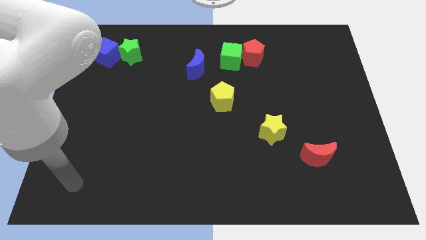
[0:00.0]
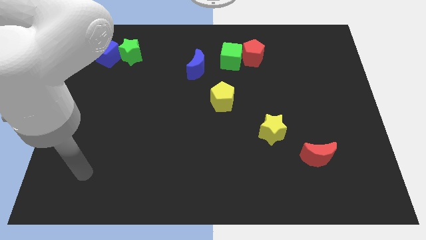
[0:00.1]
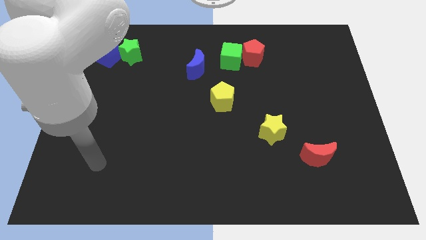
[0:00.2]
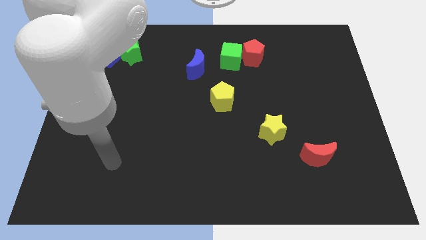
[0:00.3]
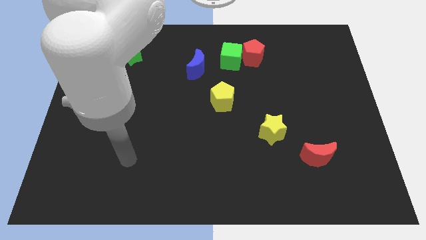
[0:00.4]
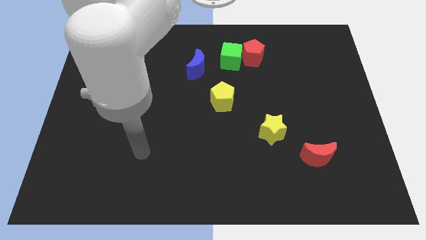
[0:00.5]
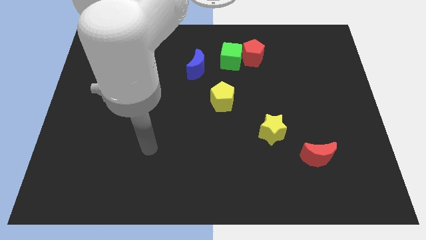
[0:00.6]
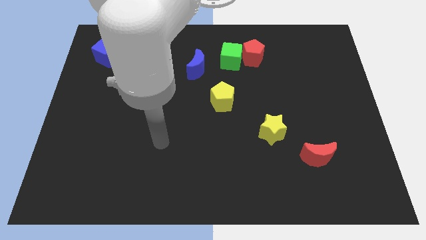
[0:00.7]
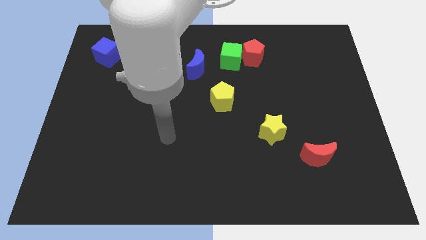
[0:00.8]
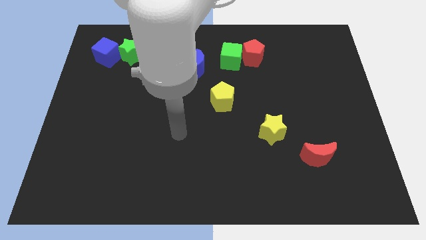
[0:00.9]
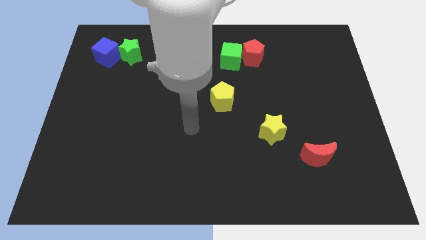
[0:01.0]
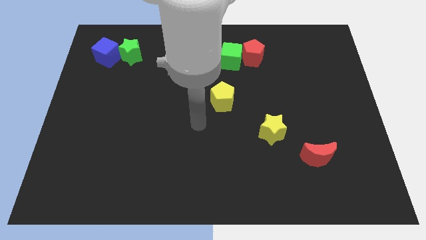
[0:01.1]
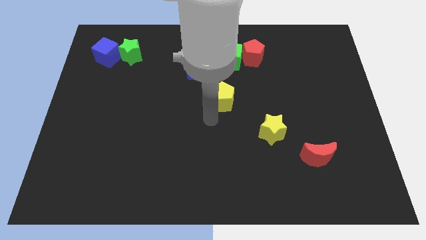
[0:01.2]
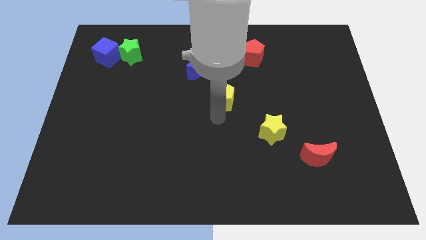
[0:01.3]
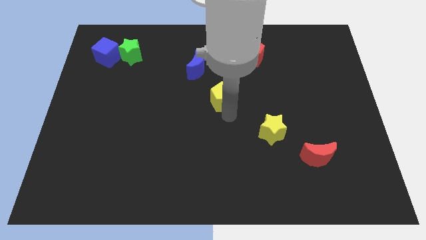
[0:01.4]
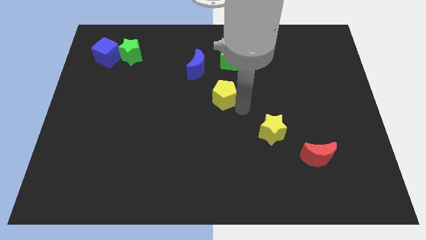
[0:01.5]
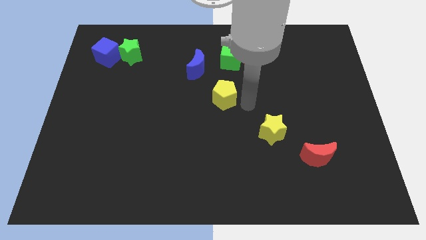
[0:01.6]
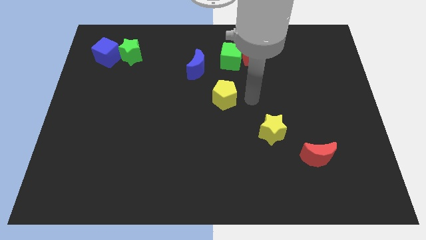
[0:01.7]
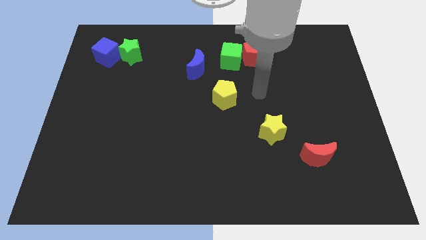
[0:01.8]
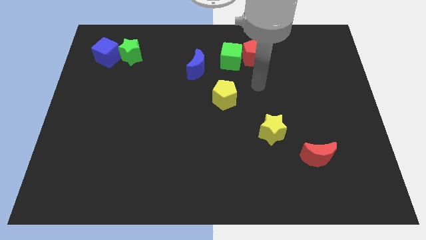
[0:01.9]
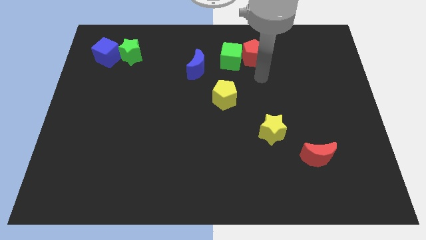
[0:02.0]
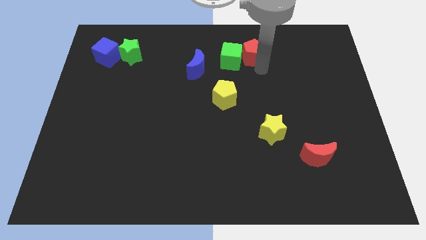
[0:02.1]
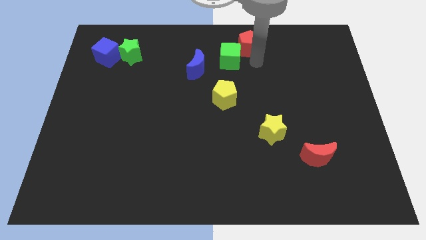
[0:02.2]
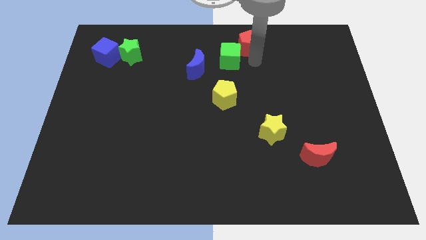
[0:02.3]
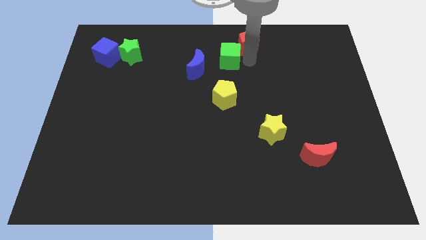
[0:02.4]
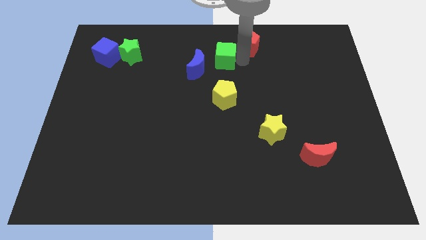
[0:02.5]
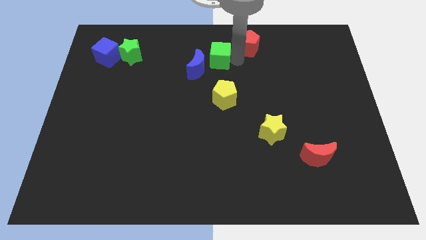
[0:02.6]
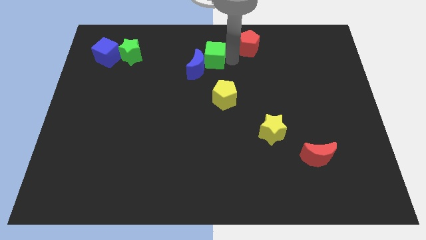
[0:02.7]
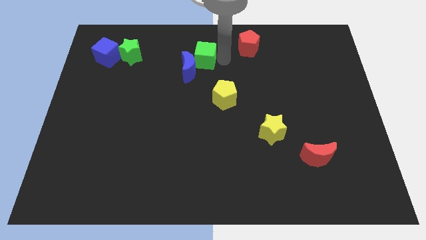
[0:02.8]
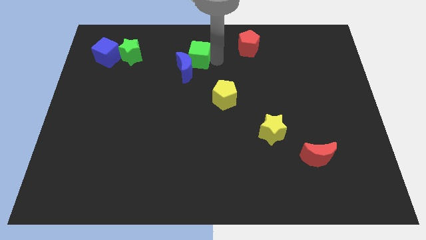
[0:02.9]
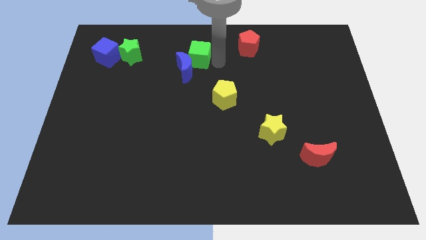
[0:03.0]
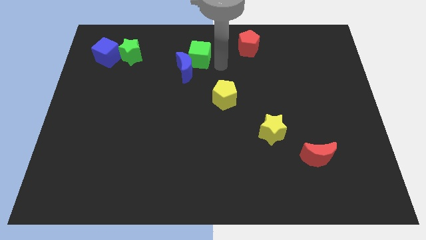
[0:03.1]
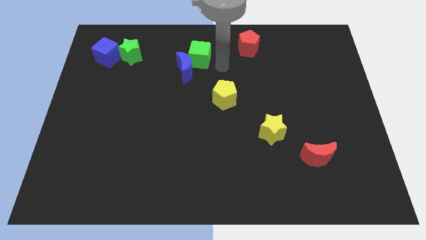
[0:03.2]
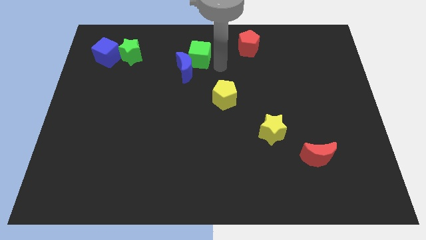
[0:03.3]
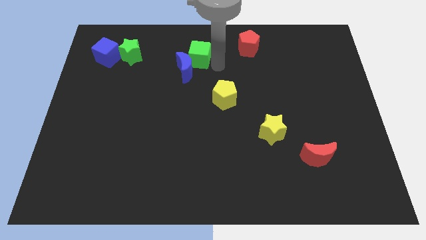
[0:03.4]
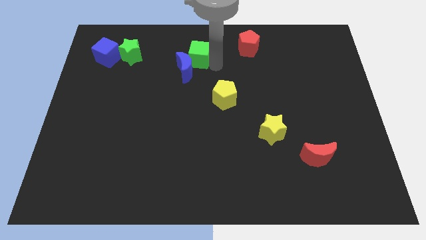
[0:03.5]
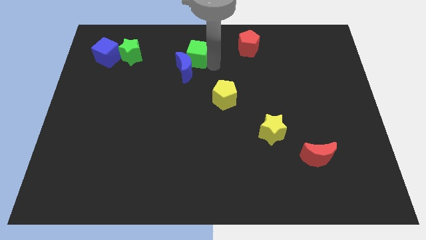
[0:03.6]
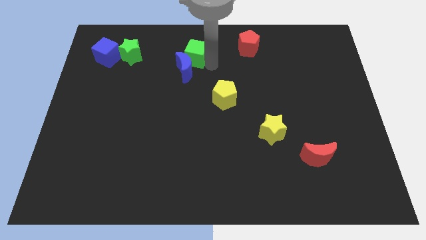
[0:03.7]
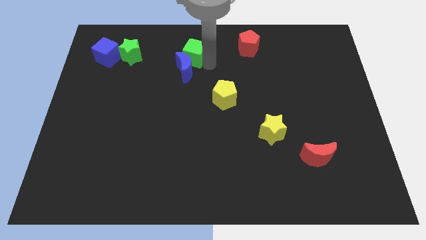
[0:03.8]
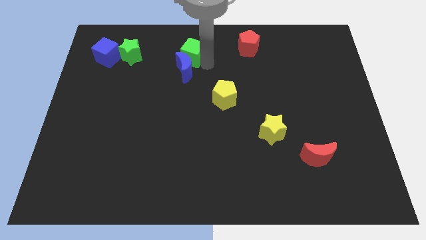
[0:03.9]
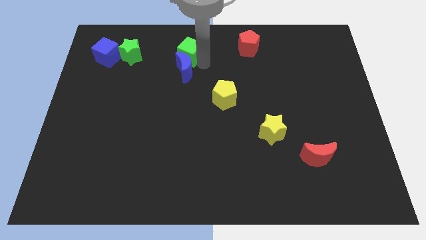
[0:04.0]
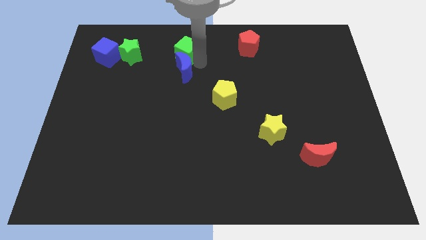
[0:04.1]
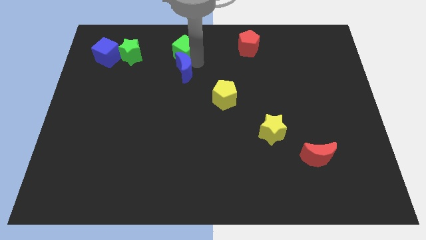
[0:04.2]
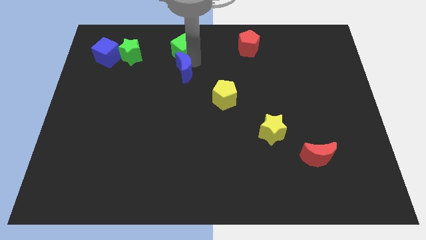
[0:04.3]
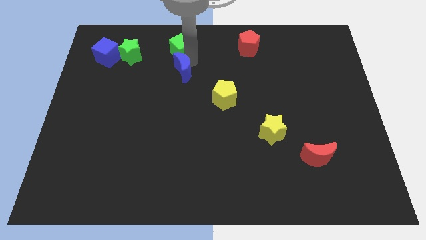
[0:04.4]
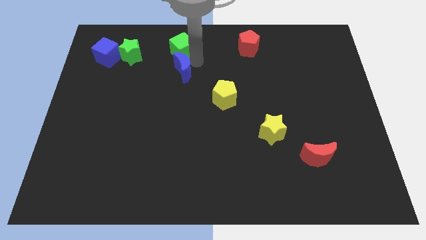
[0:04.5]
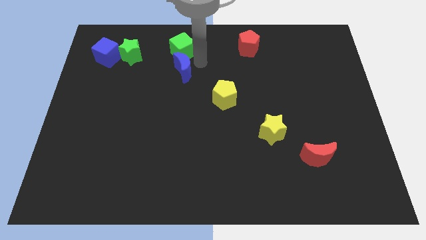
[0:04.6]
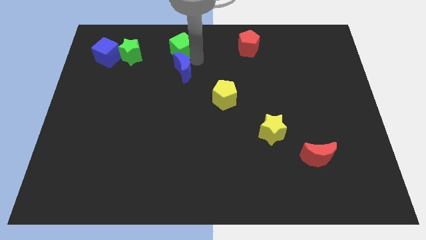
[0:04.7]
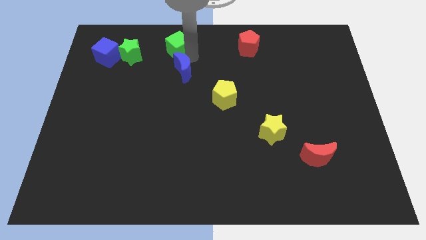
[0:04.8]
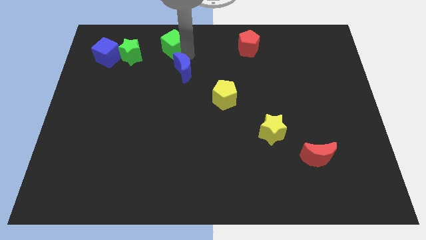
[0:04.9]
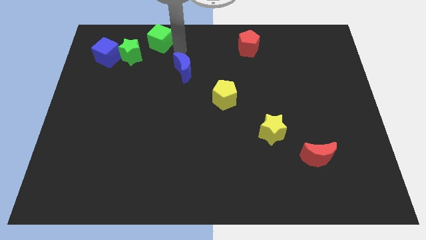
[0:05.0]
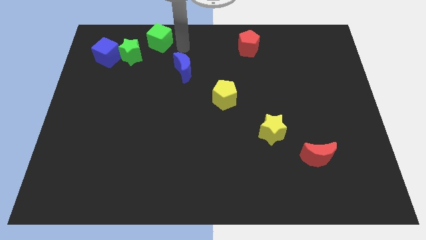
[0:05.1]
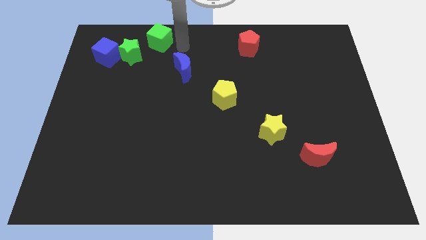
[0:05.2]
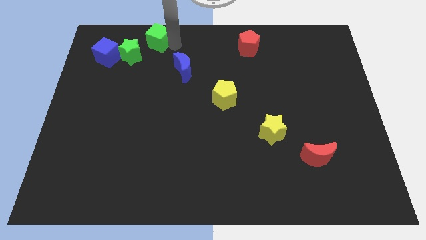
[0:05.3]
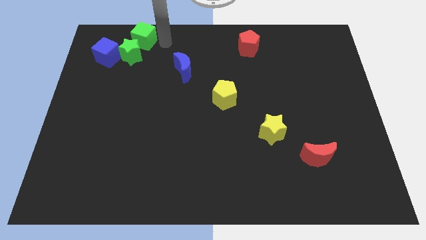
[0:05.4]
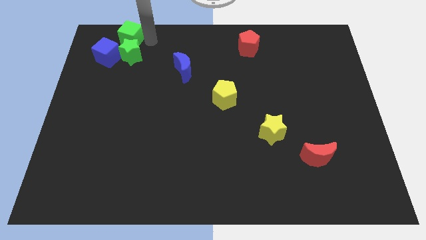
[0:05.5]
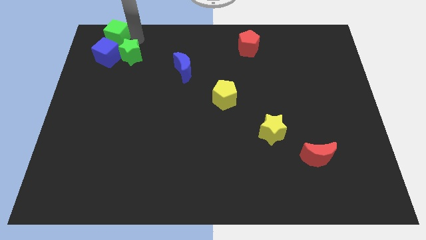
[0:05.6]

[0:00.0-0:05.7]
slide the green cube to the top left of the board

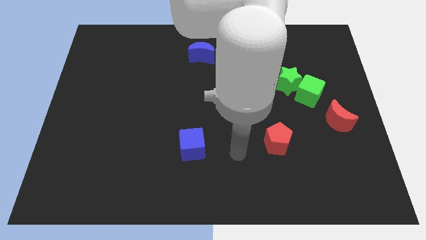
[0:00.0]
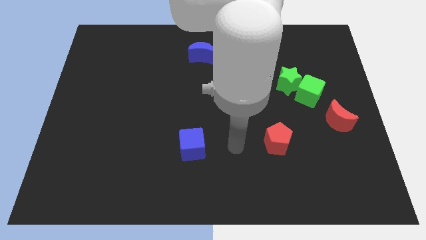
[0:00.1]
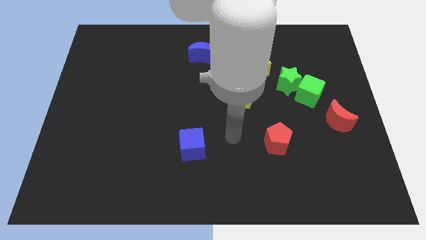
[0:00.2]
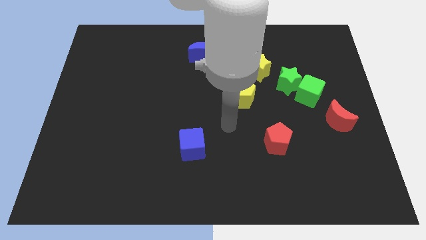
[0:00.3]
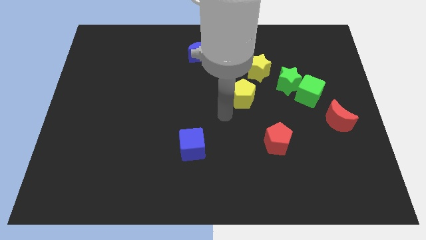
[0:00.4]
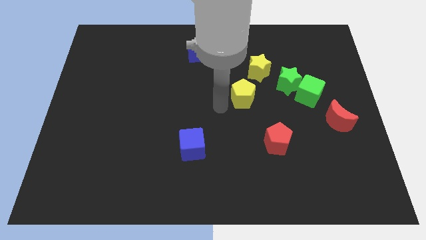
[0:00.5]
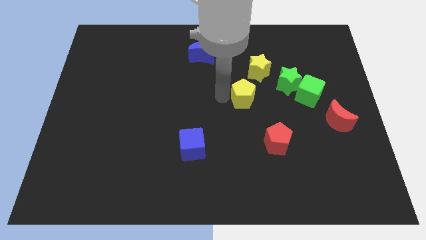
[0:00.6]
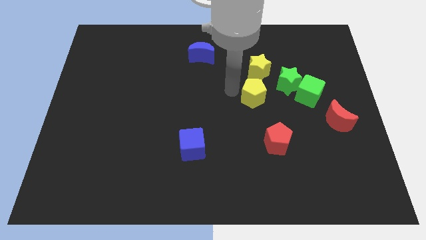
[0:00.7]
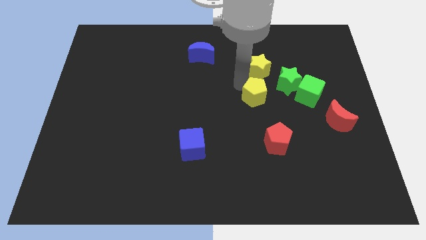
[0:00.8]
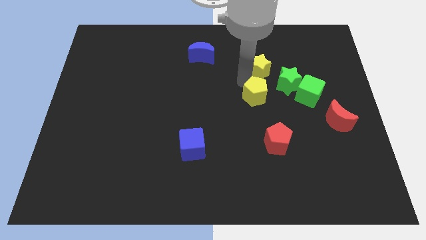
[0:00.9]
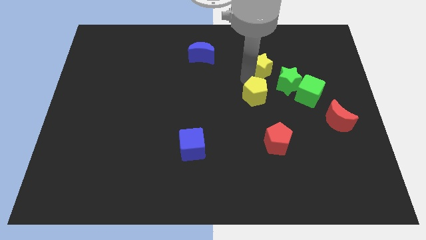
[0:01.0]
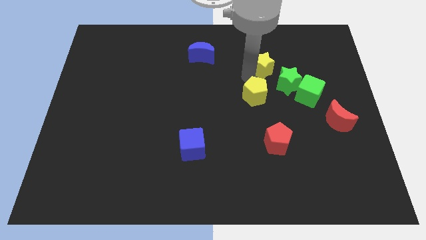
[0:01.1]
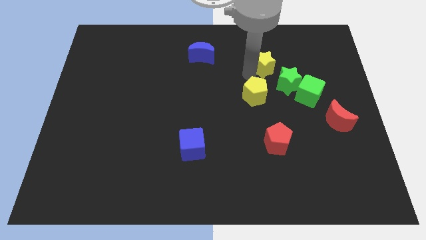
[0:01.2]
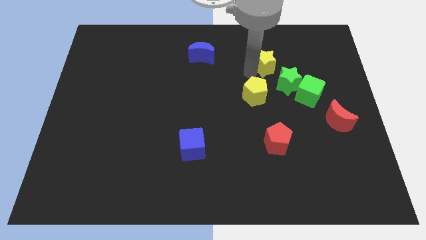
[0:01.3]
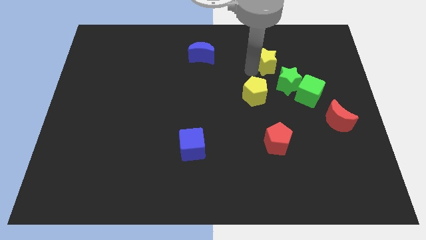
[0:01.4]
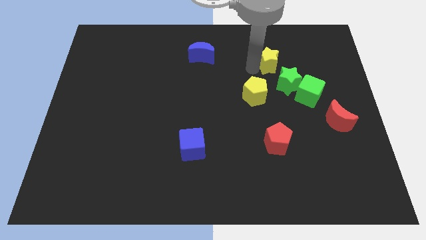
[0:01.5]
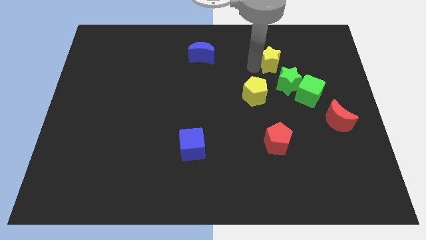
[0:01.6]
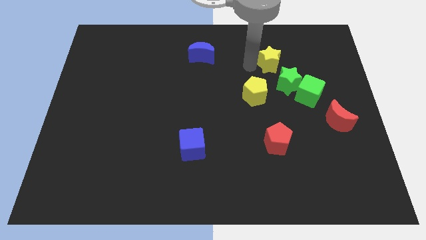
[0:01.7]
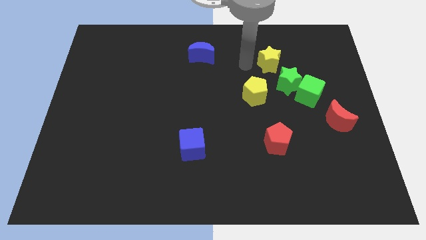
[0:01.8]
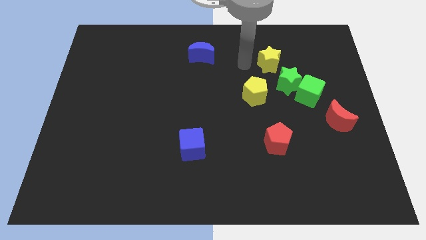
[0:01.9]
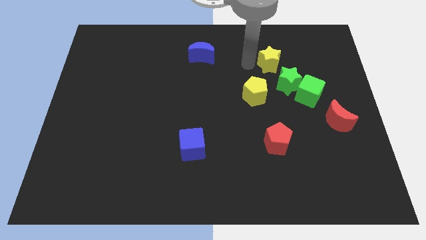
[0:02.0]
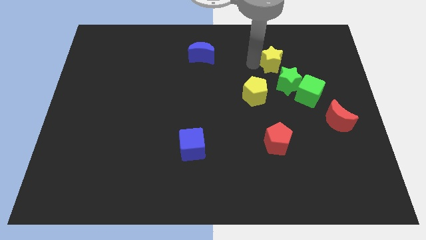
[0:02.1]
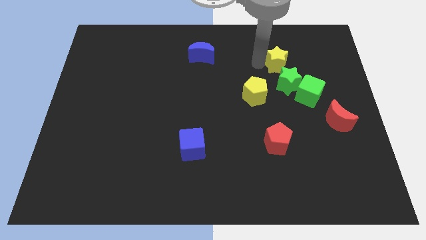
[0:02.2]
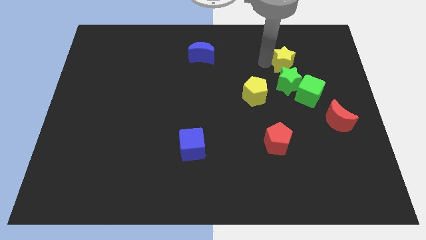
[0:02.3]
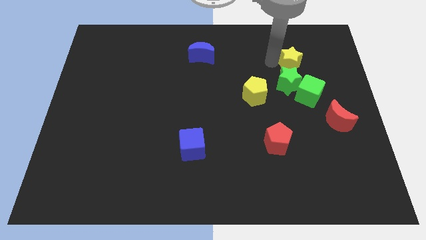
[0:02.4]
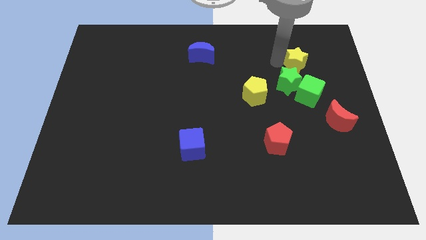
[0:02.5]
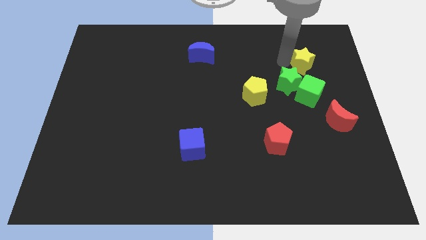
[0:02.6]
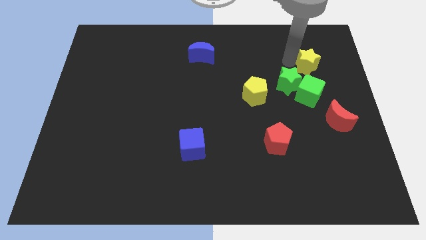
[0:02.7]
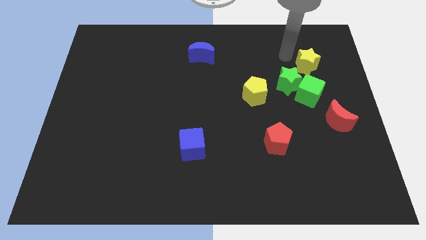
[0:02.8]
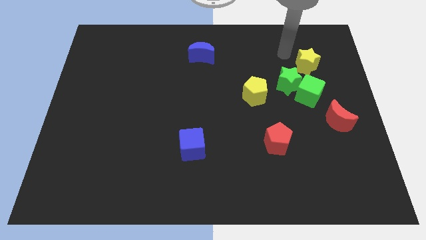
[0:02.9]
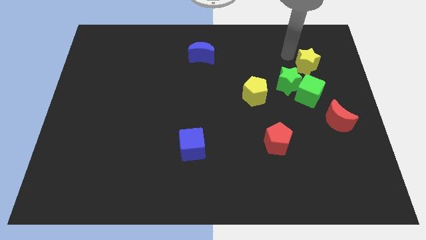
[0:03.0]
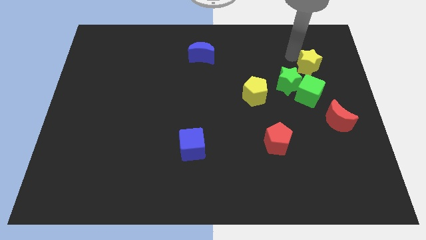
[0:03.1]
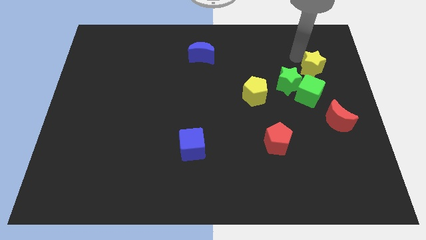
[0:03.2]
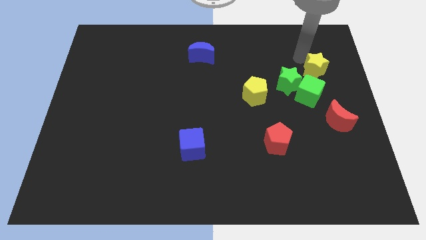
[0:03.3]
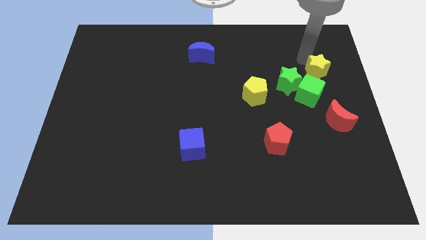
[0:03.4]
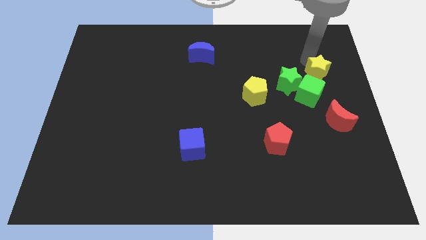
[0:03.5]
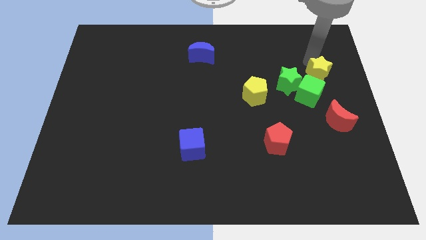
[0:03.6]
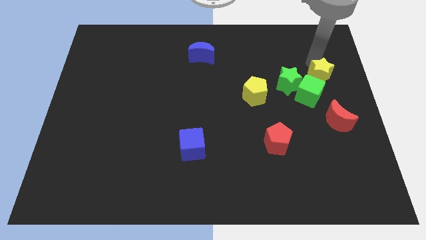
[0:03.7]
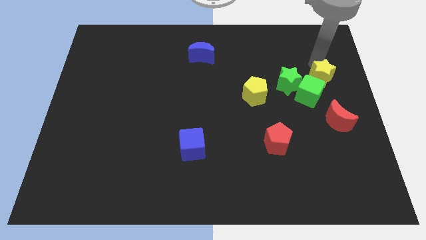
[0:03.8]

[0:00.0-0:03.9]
move the yellow star to the right side of the board
